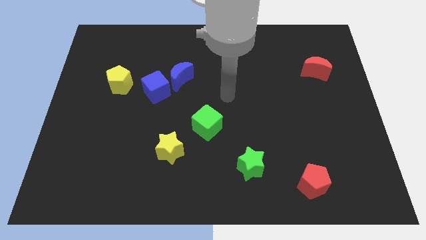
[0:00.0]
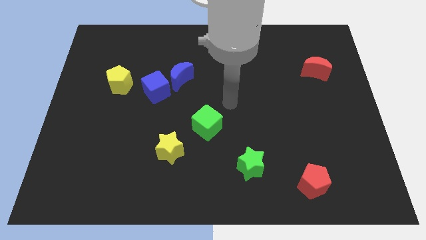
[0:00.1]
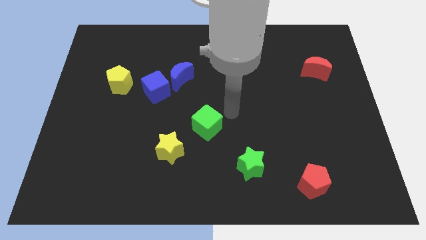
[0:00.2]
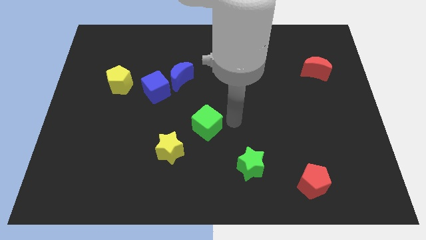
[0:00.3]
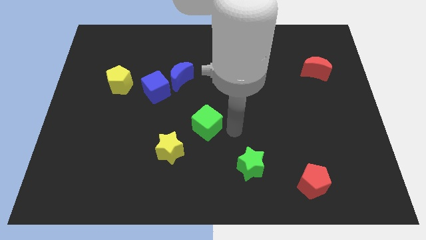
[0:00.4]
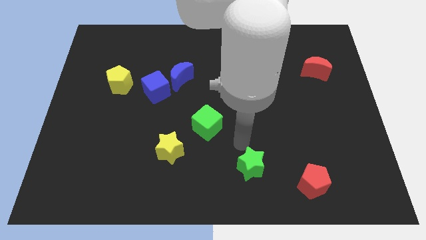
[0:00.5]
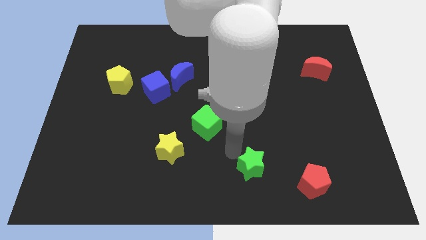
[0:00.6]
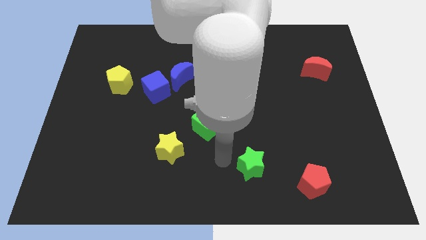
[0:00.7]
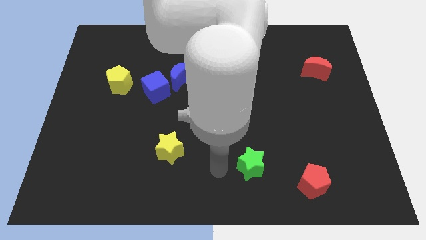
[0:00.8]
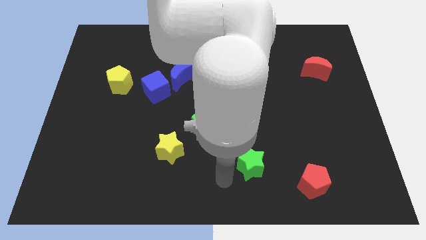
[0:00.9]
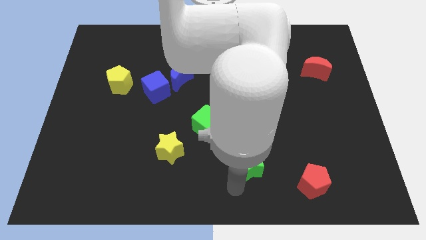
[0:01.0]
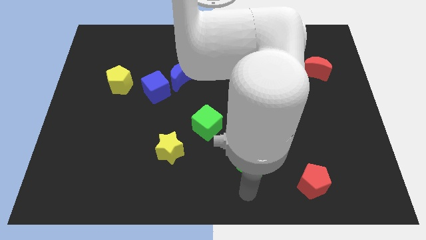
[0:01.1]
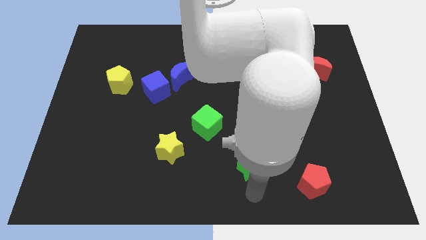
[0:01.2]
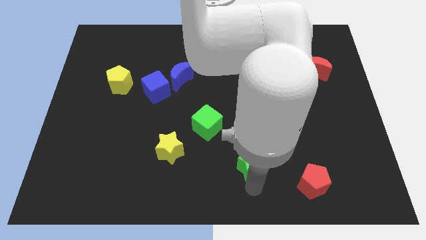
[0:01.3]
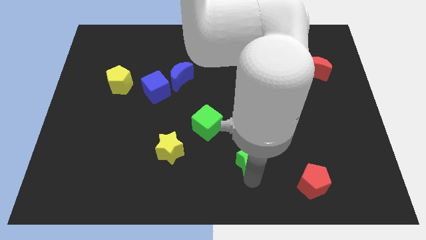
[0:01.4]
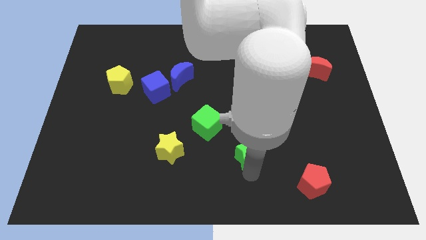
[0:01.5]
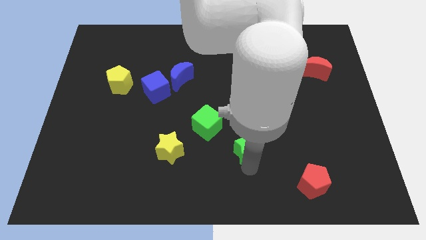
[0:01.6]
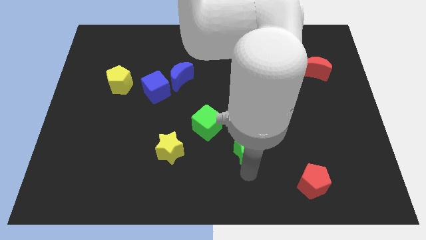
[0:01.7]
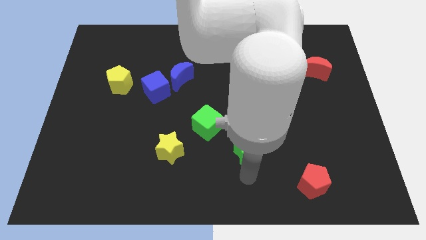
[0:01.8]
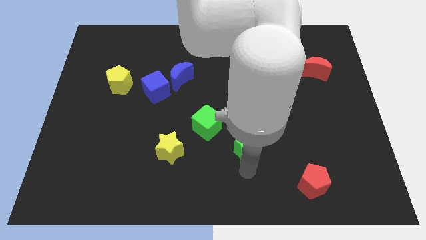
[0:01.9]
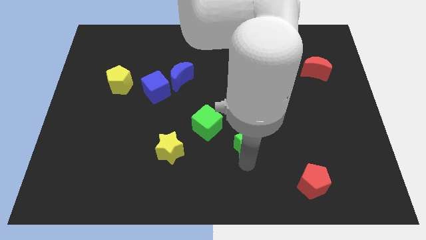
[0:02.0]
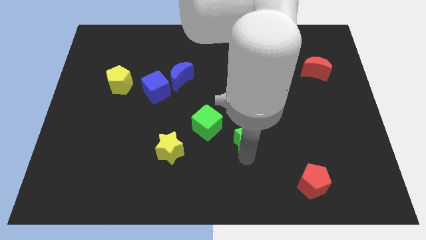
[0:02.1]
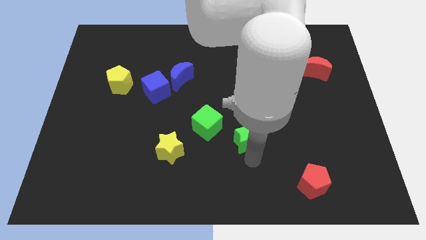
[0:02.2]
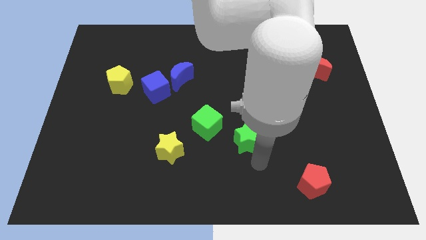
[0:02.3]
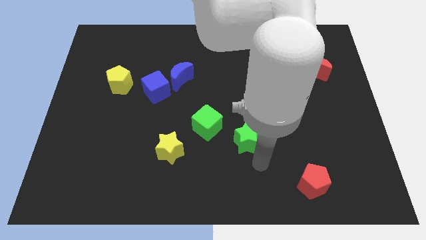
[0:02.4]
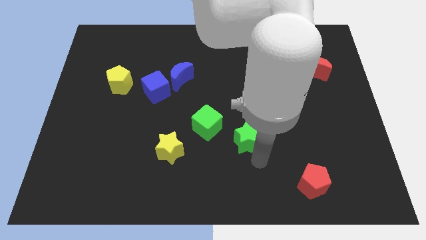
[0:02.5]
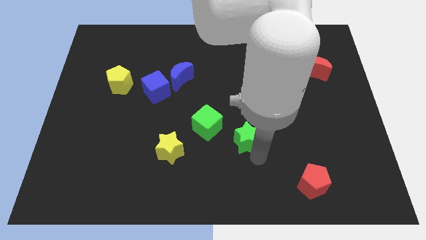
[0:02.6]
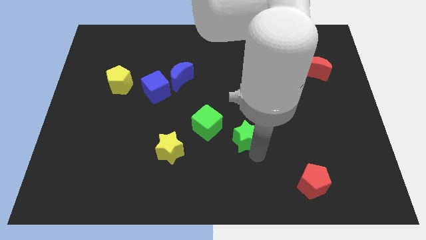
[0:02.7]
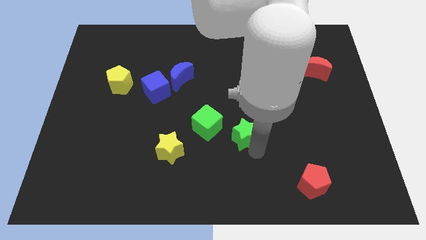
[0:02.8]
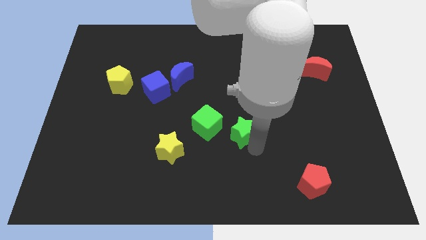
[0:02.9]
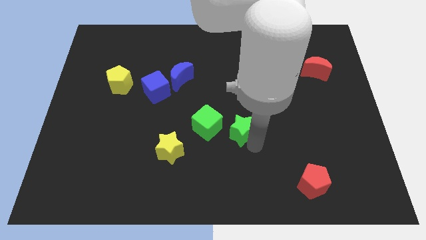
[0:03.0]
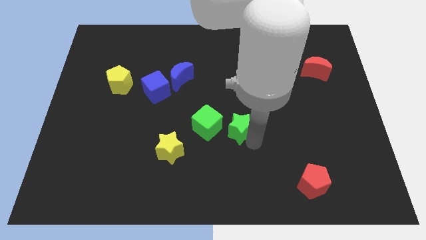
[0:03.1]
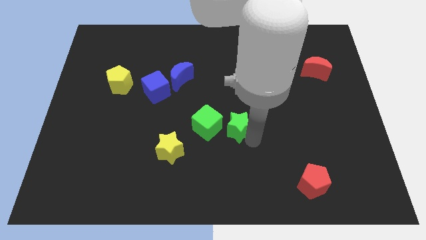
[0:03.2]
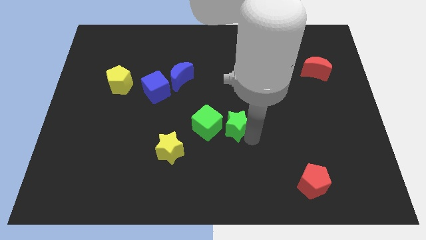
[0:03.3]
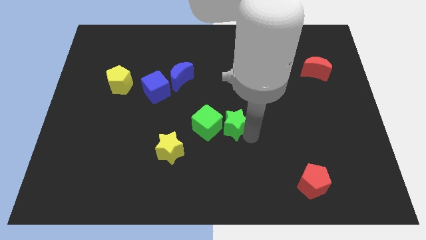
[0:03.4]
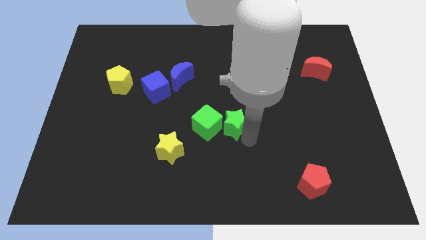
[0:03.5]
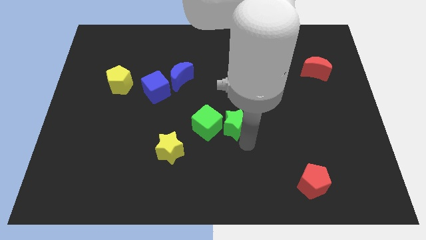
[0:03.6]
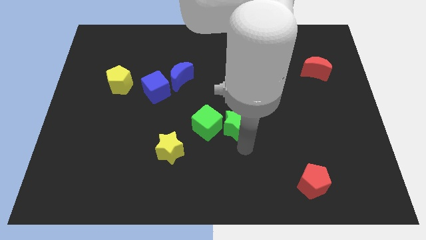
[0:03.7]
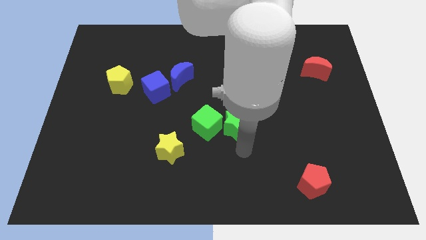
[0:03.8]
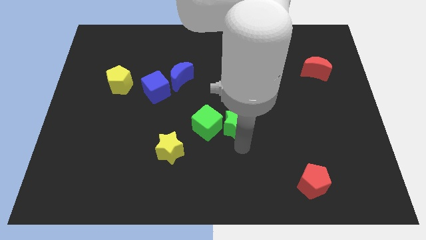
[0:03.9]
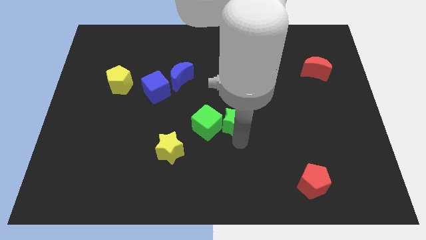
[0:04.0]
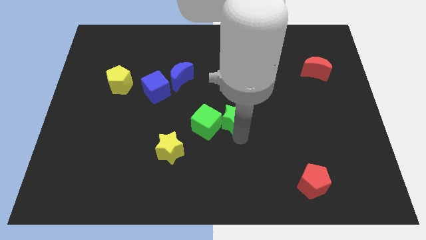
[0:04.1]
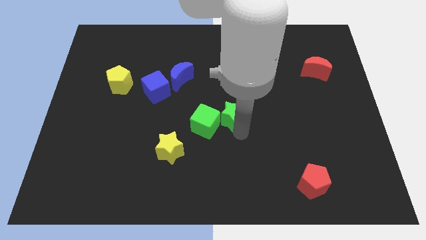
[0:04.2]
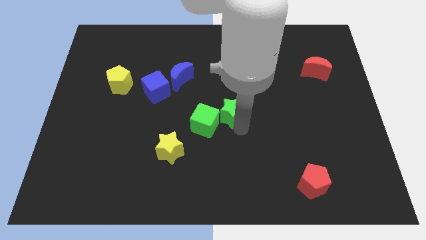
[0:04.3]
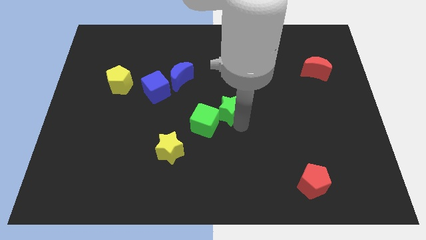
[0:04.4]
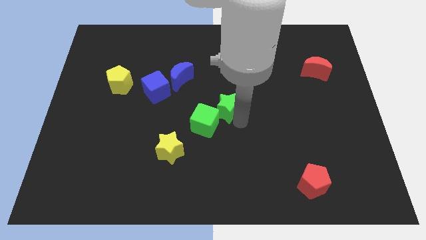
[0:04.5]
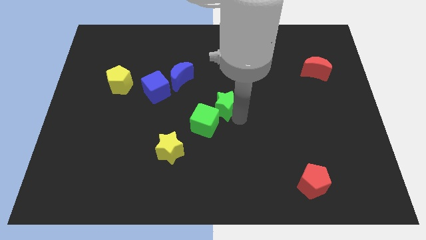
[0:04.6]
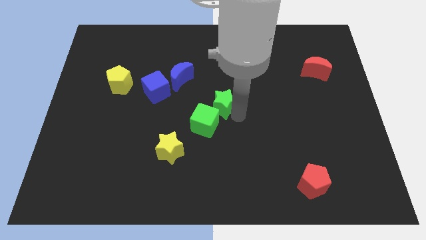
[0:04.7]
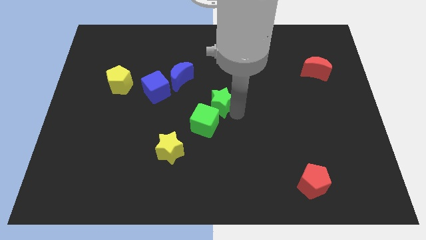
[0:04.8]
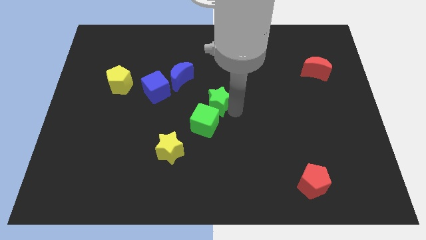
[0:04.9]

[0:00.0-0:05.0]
slide the green star to the bottom right of the blue moon

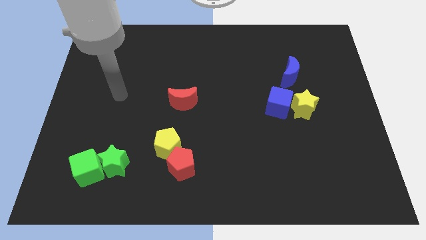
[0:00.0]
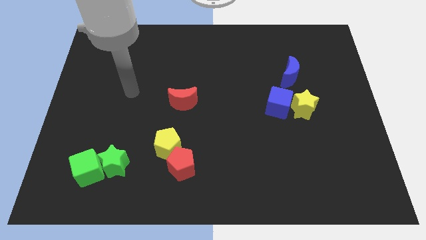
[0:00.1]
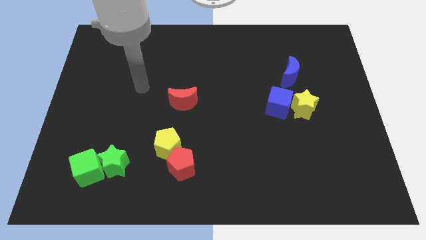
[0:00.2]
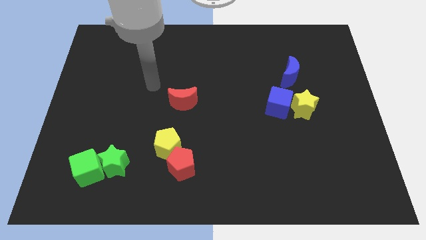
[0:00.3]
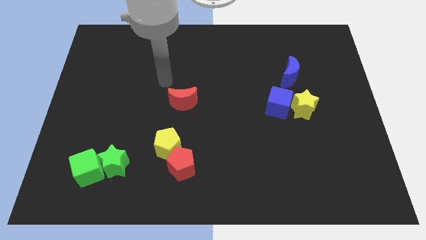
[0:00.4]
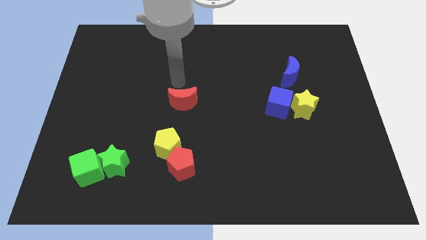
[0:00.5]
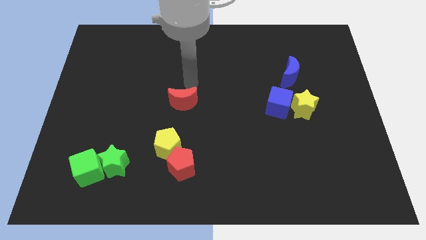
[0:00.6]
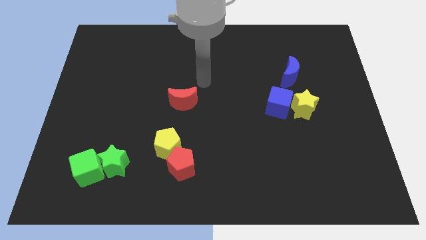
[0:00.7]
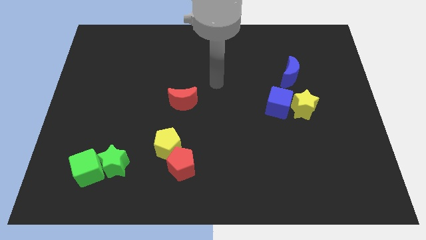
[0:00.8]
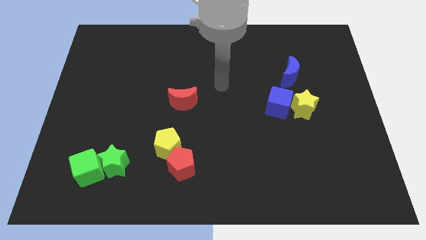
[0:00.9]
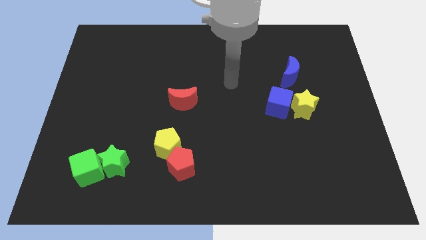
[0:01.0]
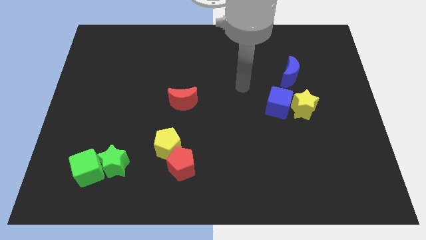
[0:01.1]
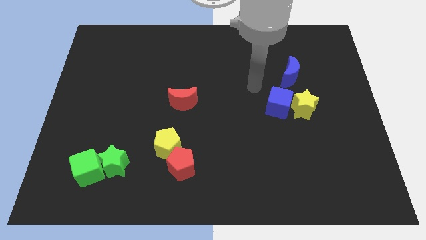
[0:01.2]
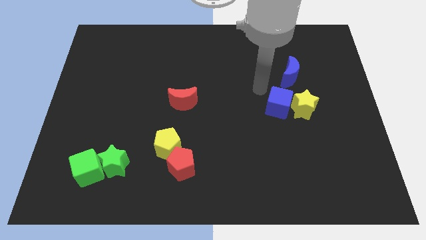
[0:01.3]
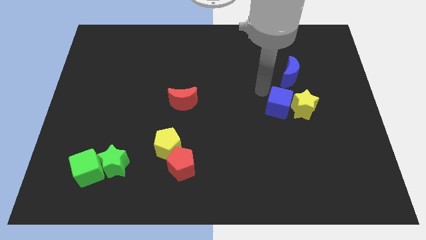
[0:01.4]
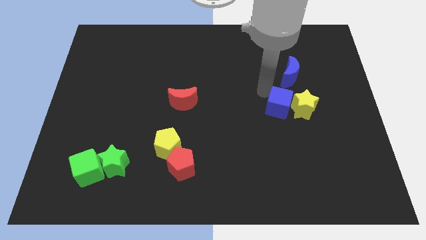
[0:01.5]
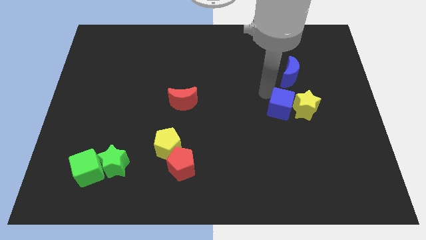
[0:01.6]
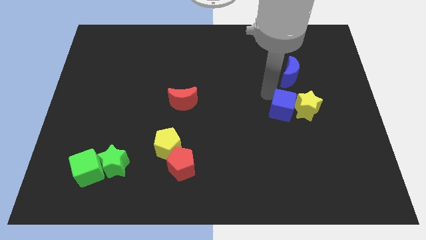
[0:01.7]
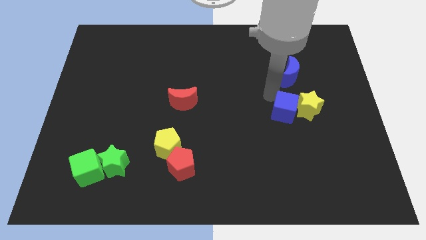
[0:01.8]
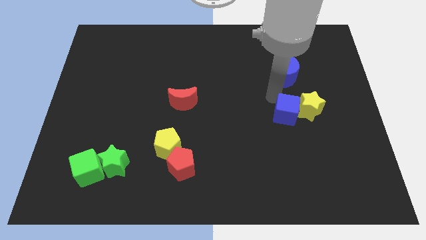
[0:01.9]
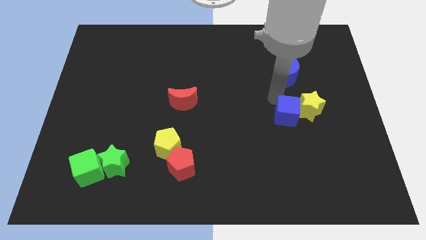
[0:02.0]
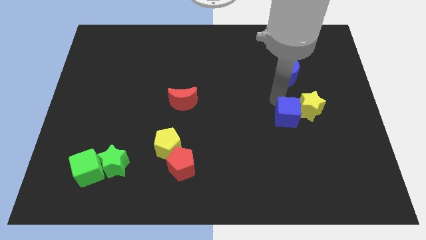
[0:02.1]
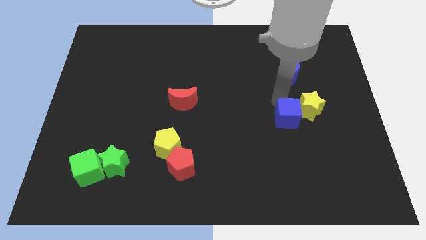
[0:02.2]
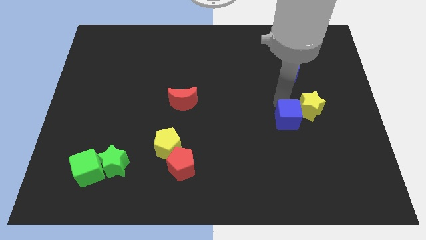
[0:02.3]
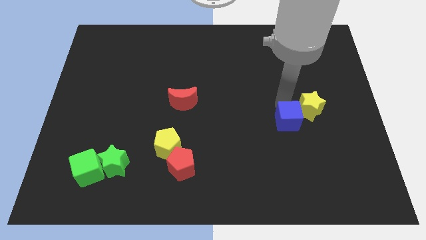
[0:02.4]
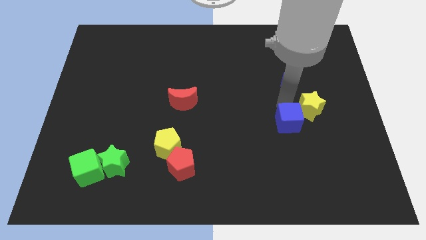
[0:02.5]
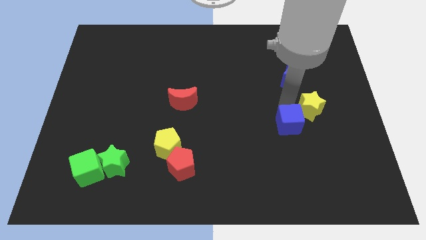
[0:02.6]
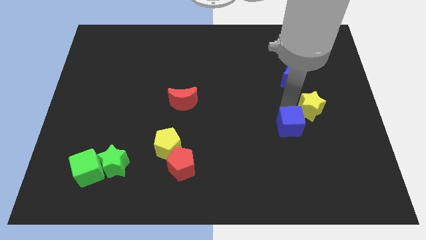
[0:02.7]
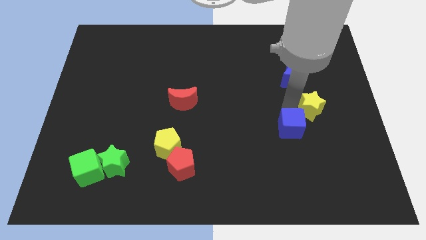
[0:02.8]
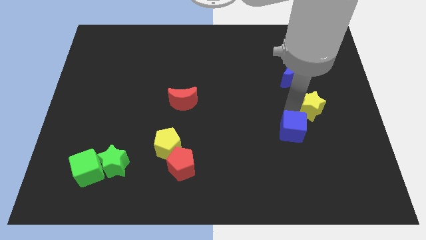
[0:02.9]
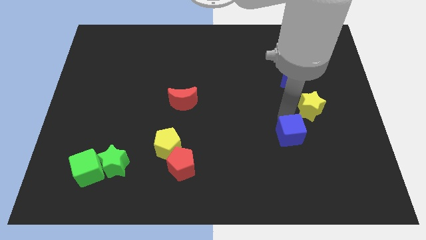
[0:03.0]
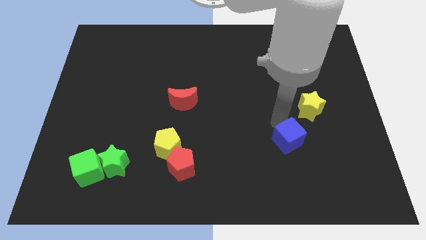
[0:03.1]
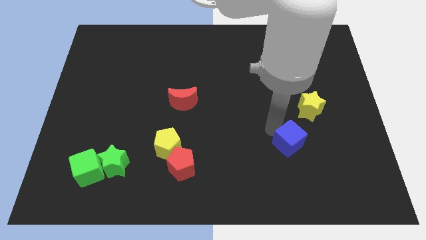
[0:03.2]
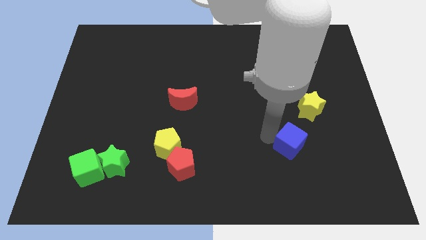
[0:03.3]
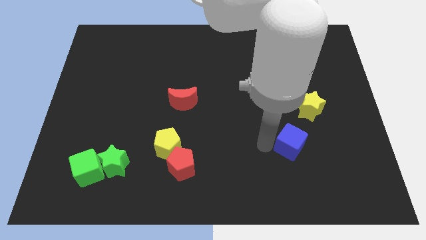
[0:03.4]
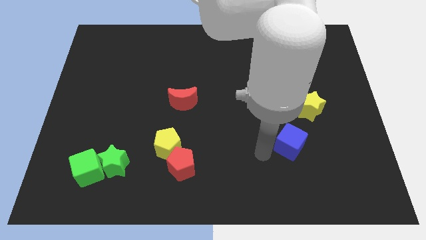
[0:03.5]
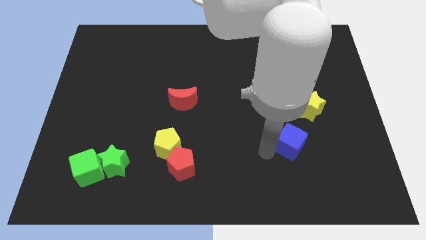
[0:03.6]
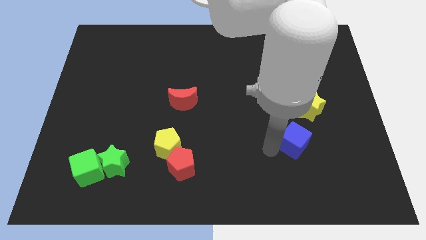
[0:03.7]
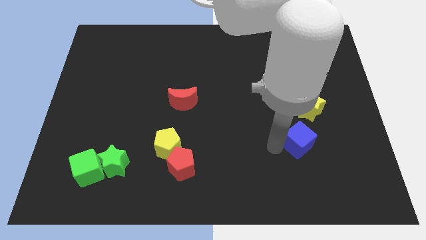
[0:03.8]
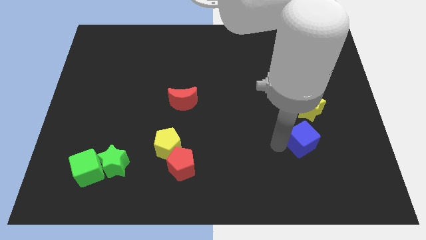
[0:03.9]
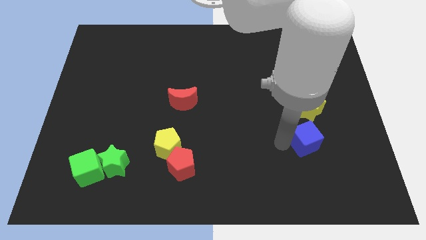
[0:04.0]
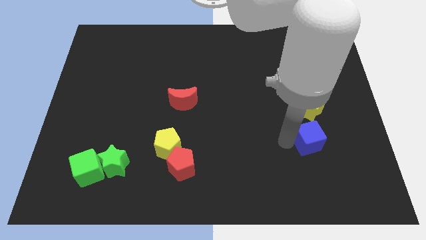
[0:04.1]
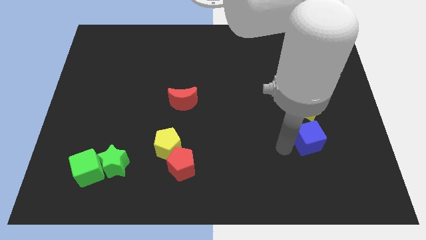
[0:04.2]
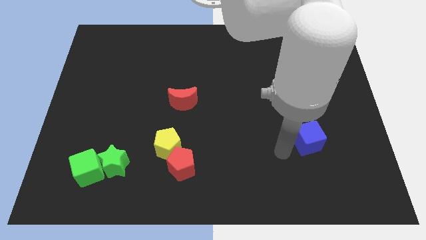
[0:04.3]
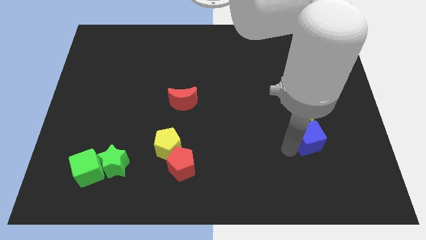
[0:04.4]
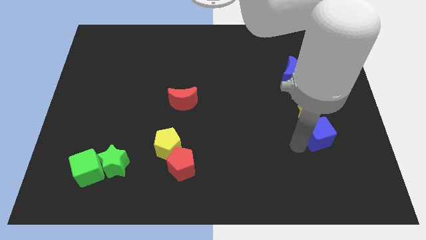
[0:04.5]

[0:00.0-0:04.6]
move the blue cube to the bottom right of the yellow star
